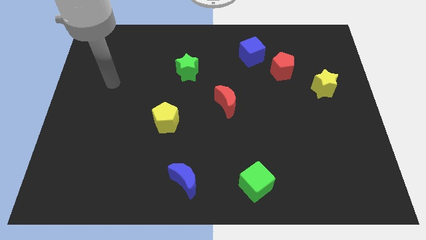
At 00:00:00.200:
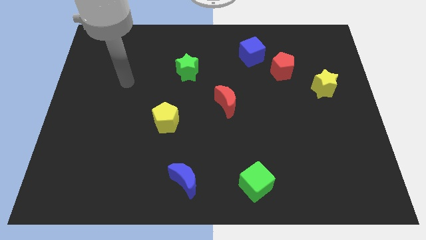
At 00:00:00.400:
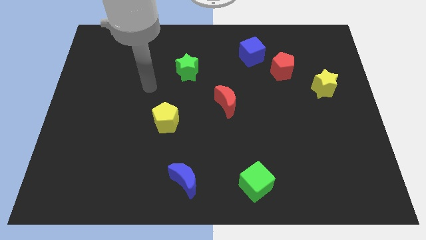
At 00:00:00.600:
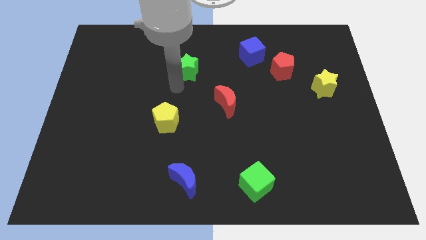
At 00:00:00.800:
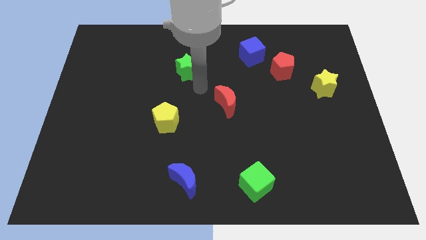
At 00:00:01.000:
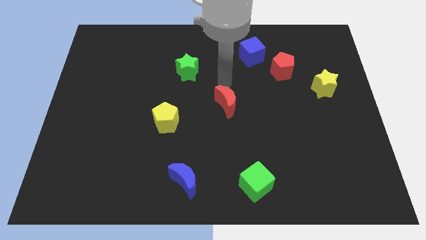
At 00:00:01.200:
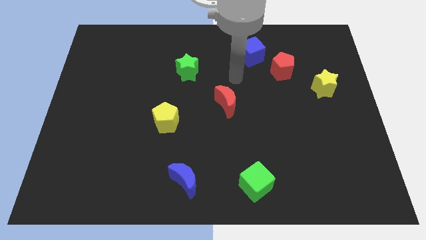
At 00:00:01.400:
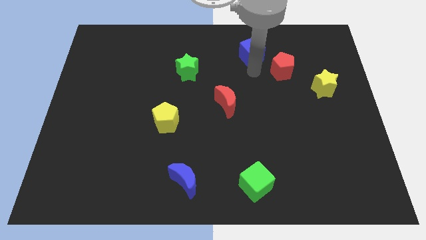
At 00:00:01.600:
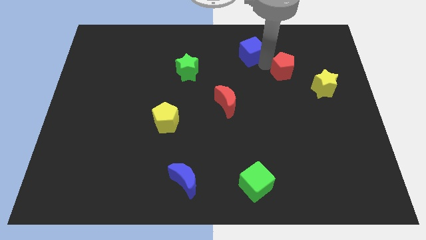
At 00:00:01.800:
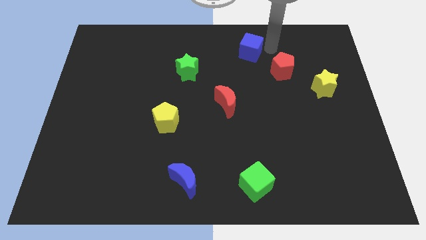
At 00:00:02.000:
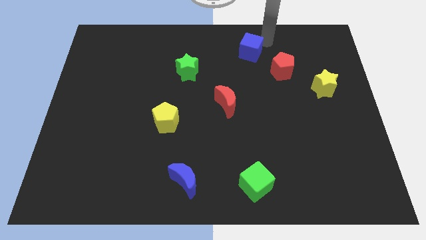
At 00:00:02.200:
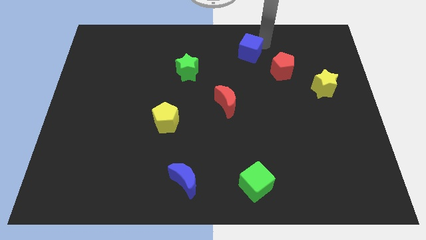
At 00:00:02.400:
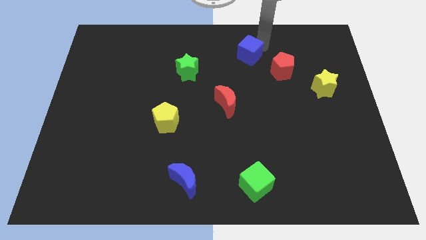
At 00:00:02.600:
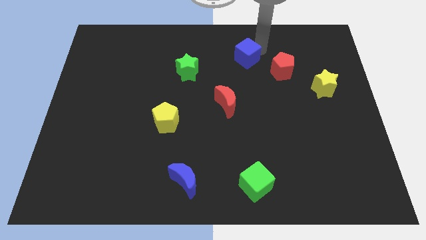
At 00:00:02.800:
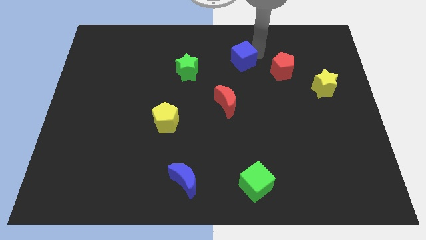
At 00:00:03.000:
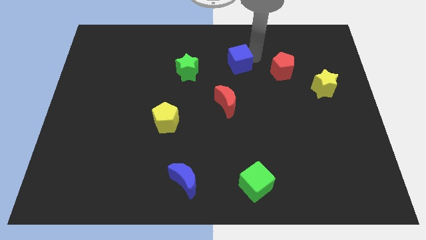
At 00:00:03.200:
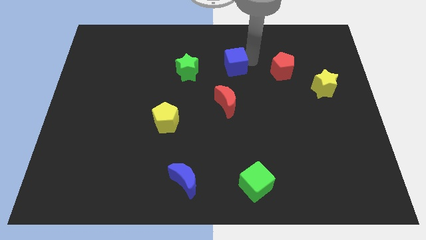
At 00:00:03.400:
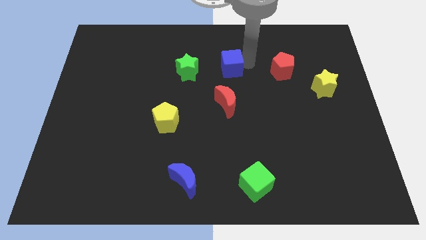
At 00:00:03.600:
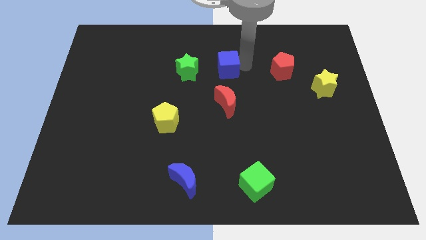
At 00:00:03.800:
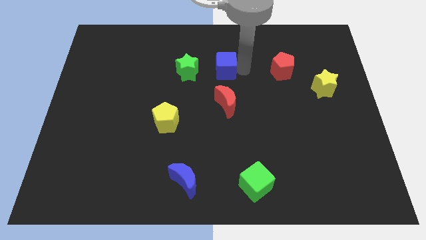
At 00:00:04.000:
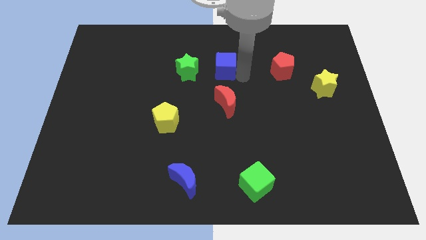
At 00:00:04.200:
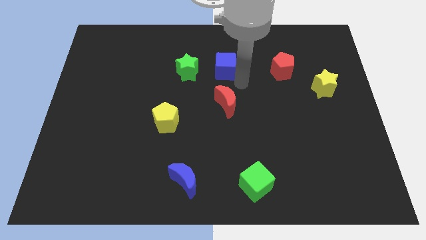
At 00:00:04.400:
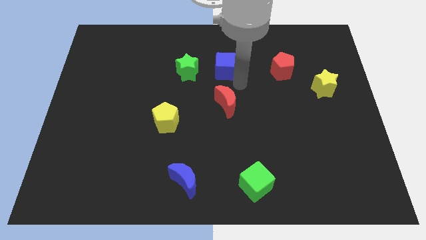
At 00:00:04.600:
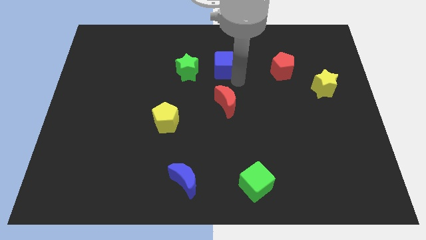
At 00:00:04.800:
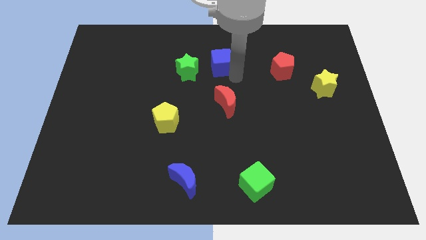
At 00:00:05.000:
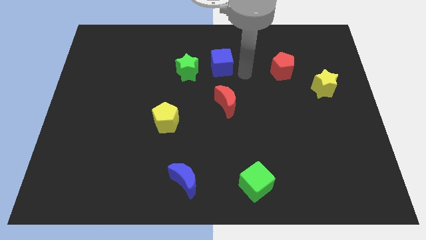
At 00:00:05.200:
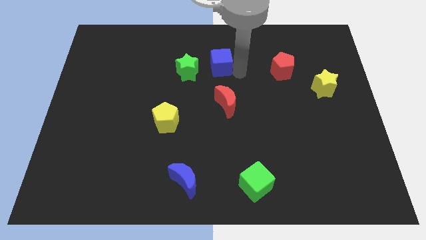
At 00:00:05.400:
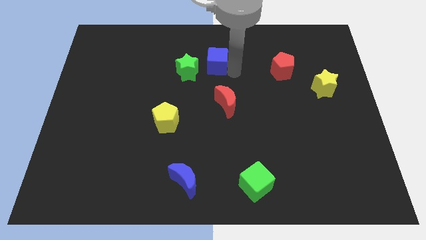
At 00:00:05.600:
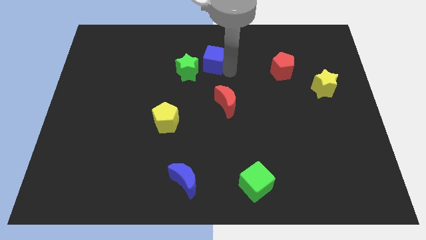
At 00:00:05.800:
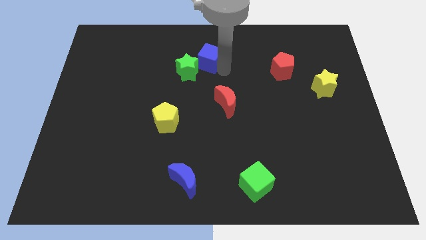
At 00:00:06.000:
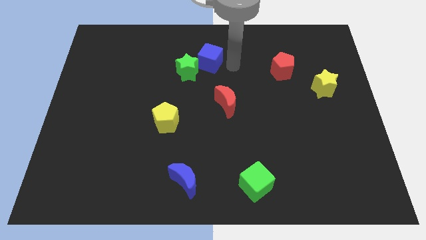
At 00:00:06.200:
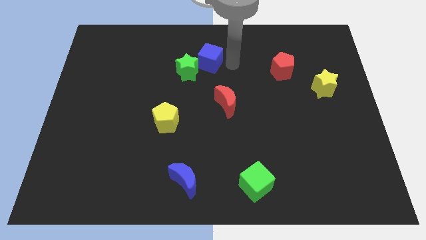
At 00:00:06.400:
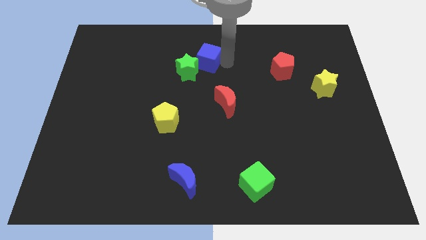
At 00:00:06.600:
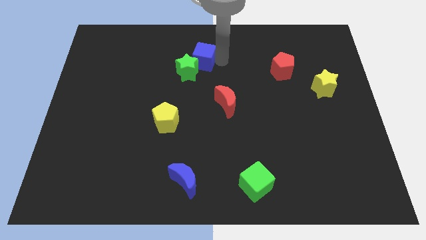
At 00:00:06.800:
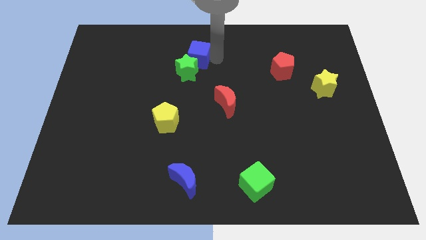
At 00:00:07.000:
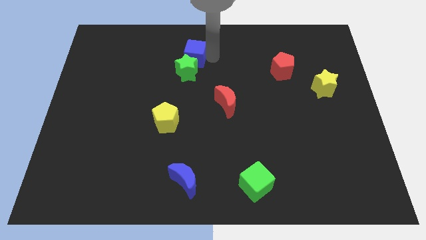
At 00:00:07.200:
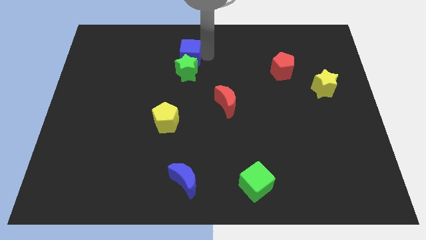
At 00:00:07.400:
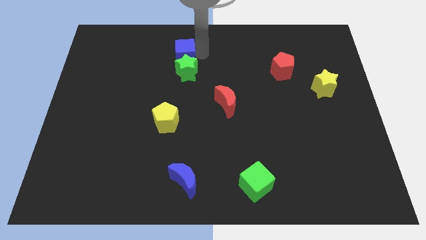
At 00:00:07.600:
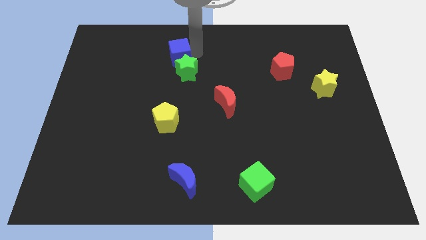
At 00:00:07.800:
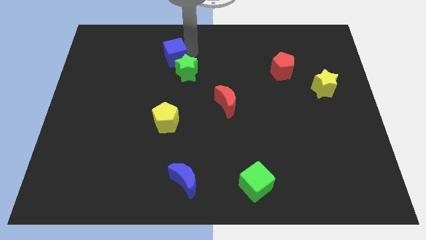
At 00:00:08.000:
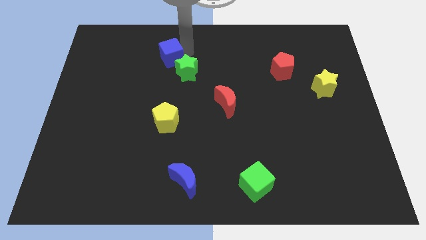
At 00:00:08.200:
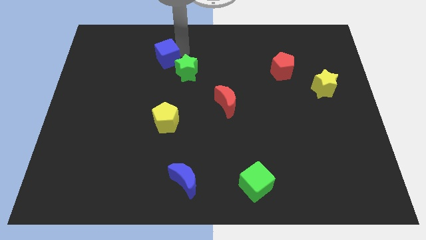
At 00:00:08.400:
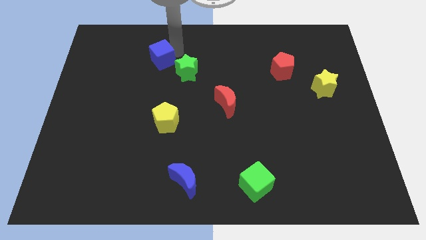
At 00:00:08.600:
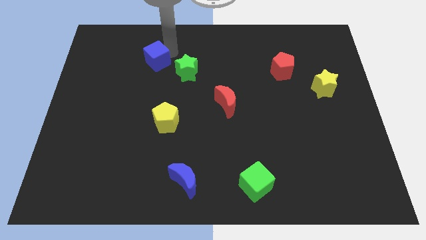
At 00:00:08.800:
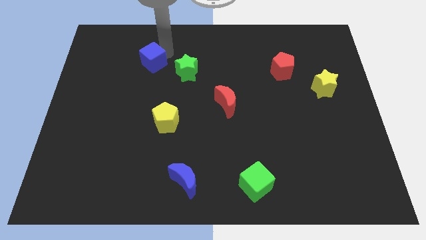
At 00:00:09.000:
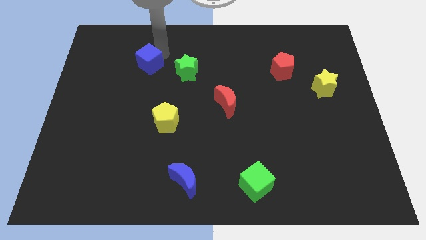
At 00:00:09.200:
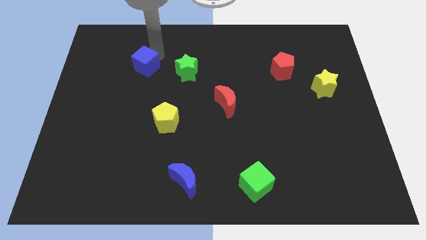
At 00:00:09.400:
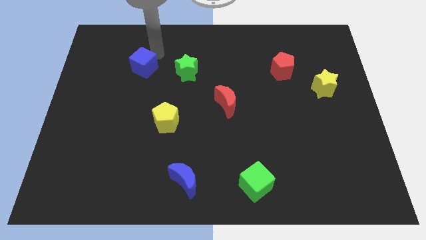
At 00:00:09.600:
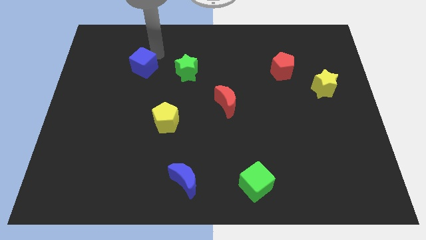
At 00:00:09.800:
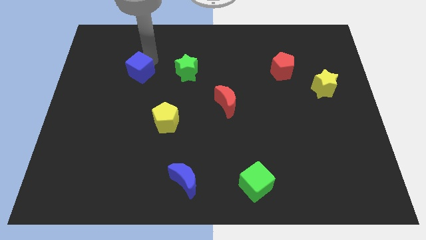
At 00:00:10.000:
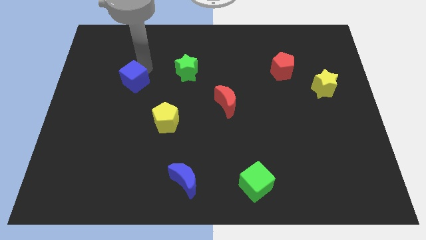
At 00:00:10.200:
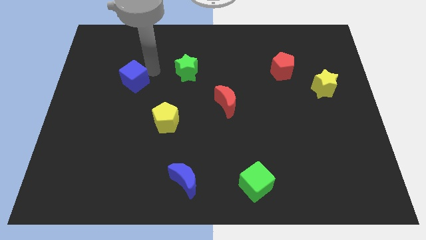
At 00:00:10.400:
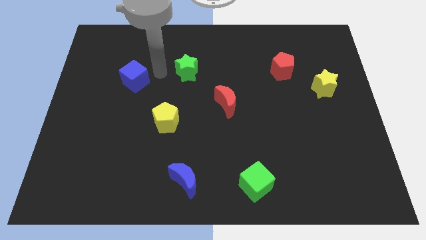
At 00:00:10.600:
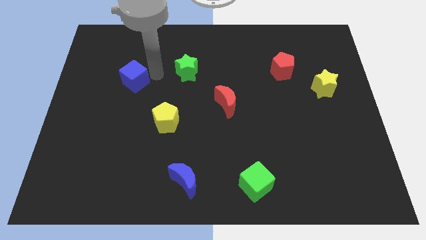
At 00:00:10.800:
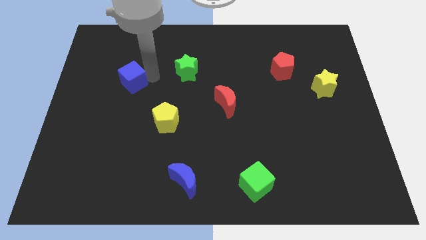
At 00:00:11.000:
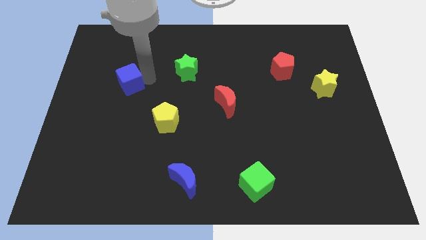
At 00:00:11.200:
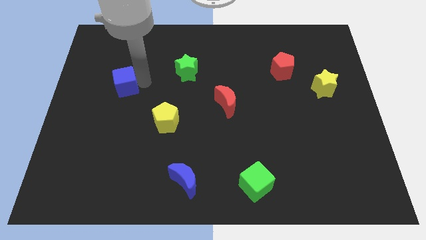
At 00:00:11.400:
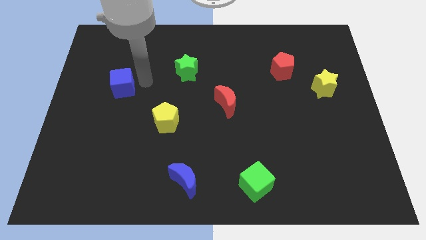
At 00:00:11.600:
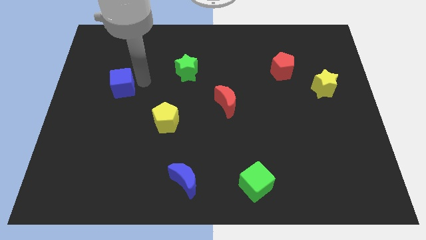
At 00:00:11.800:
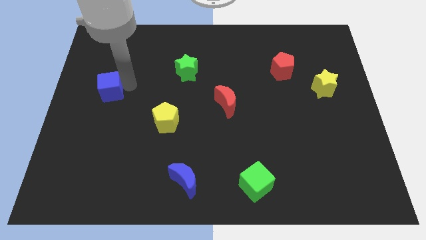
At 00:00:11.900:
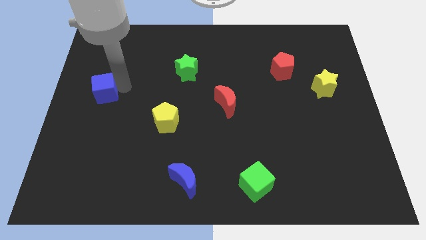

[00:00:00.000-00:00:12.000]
push the blue cube to the center left
